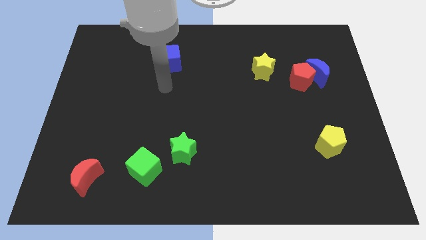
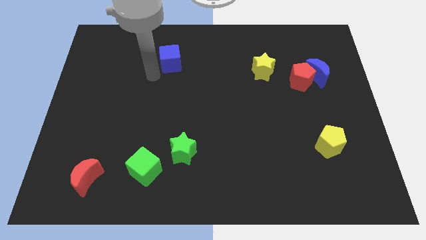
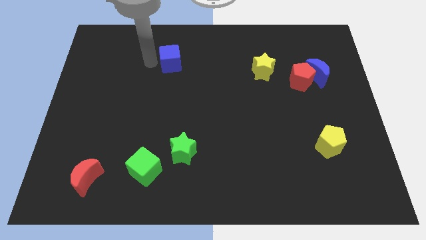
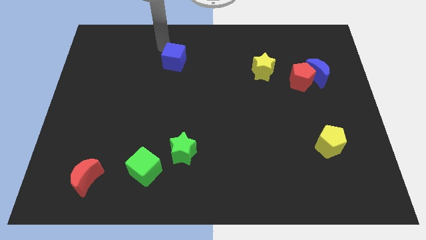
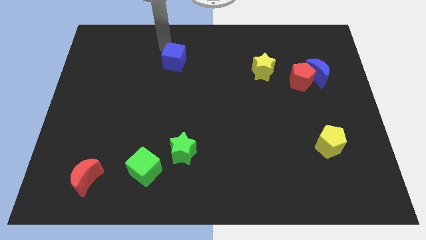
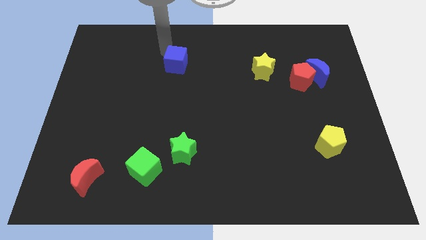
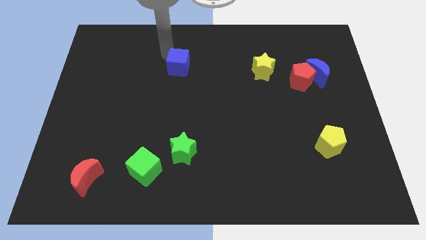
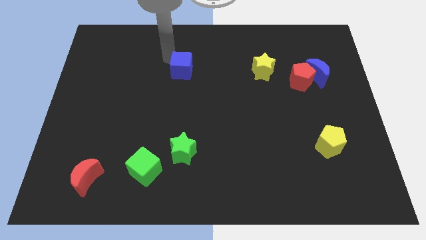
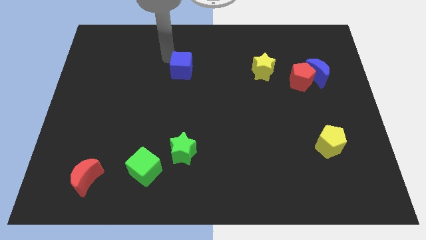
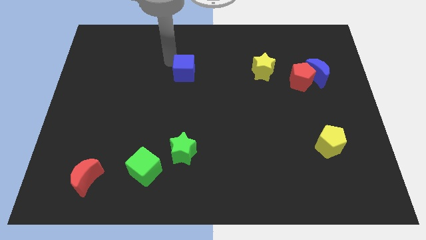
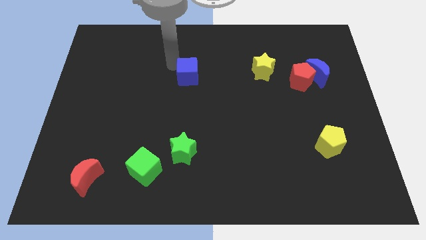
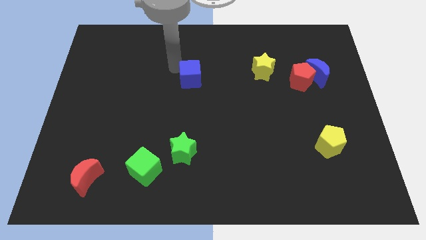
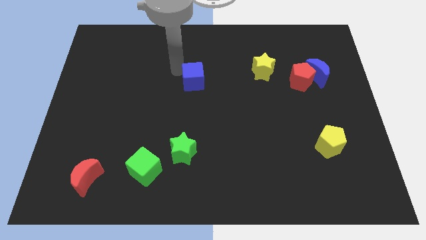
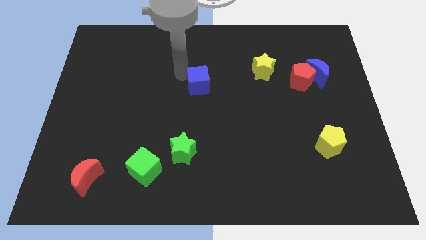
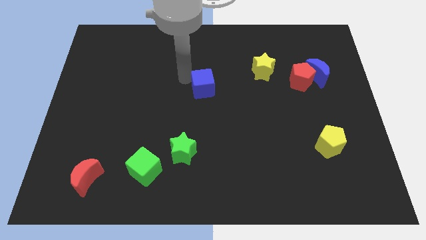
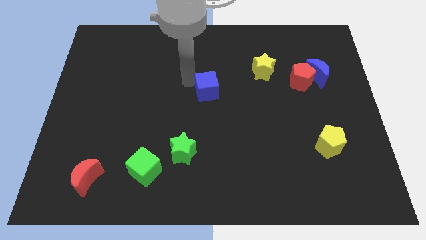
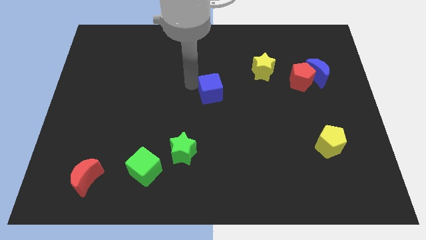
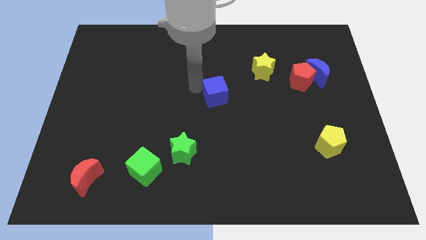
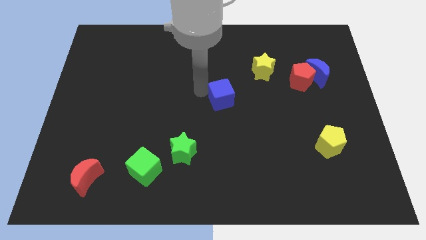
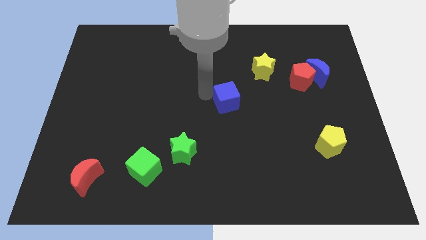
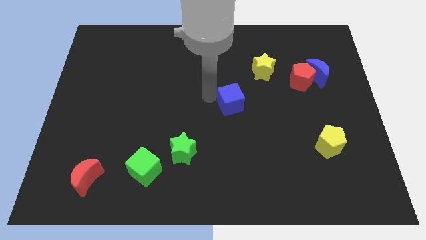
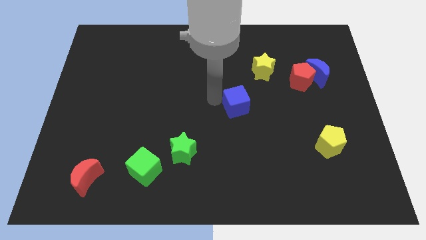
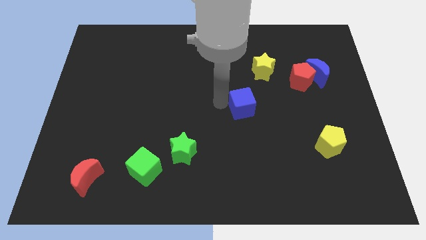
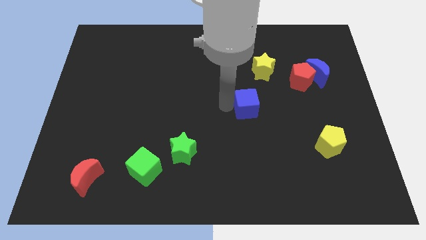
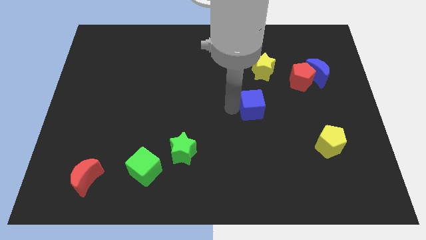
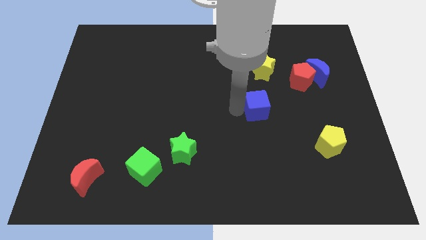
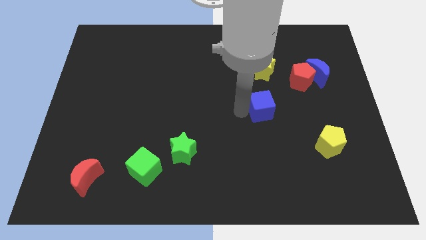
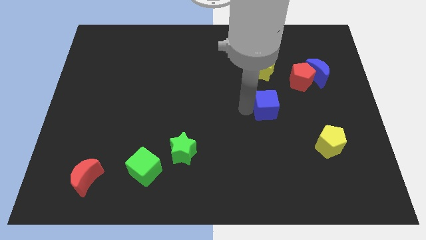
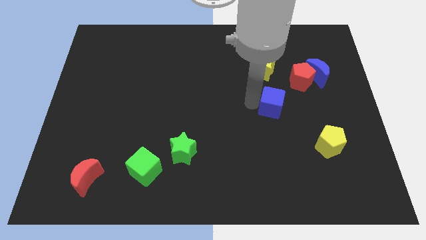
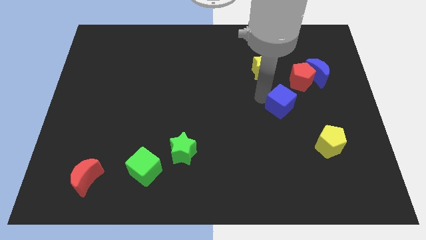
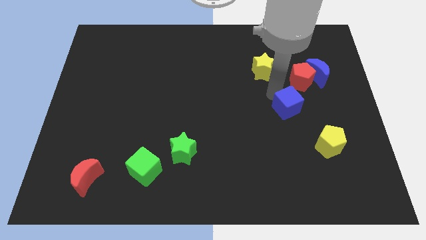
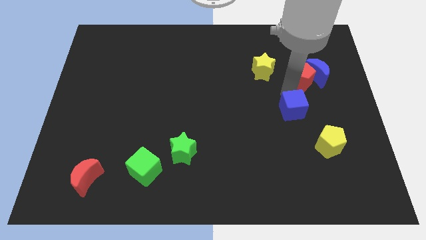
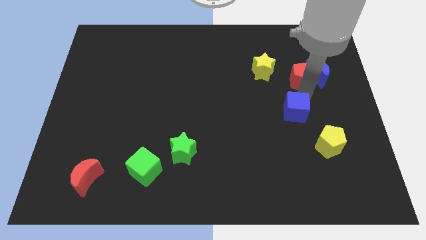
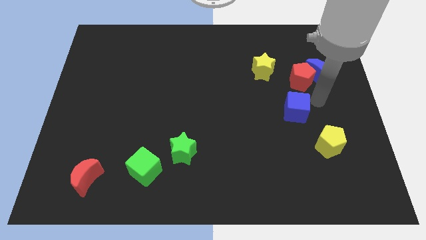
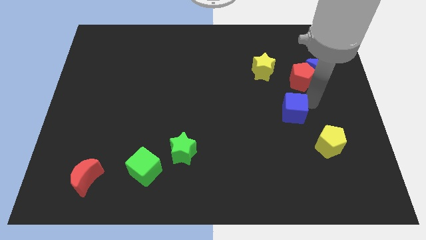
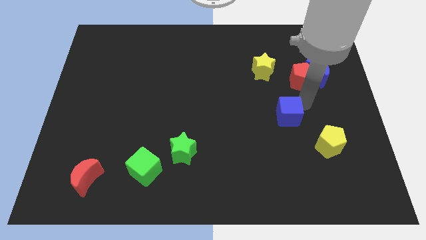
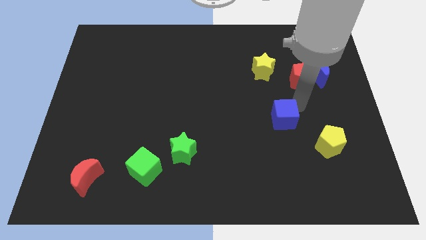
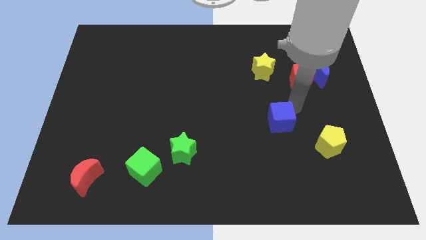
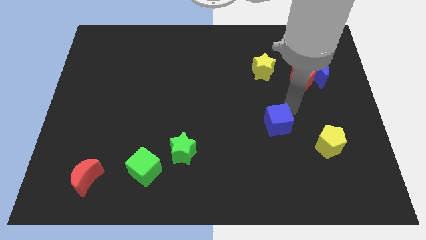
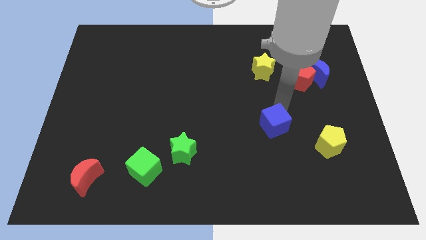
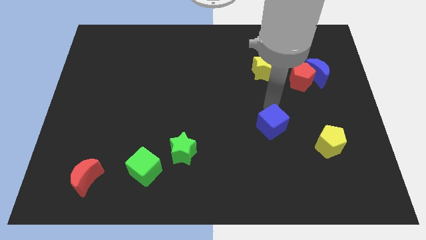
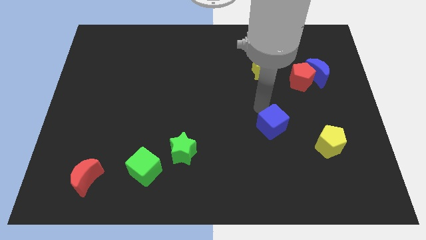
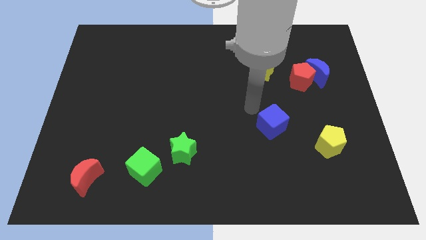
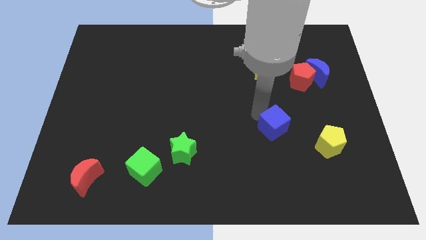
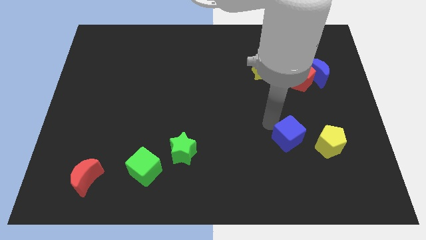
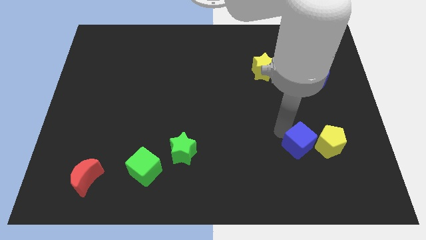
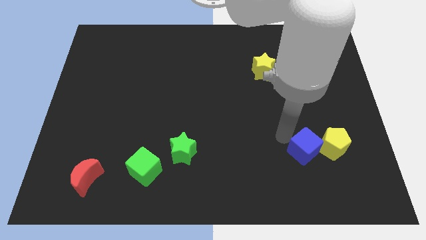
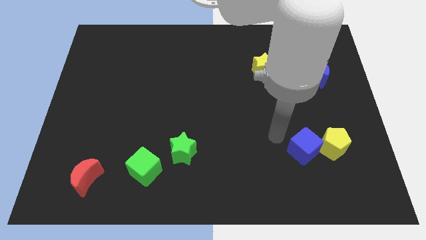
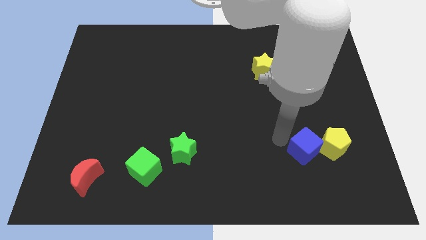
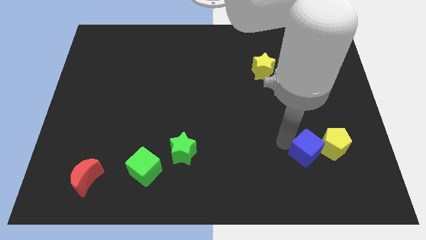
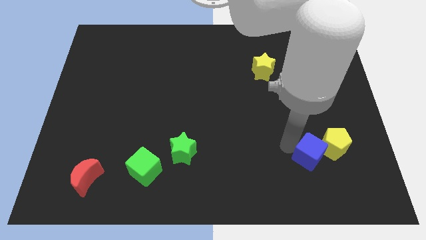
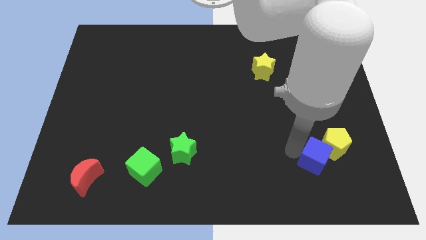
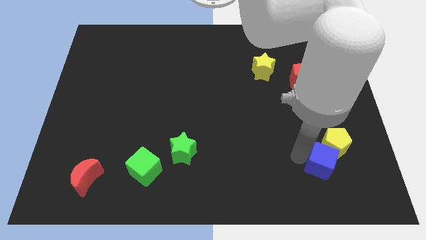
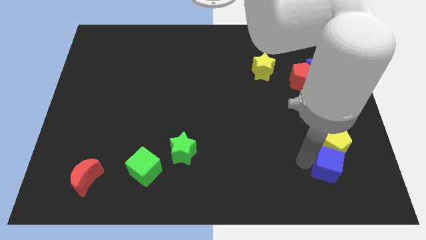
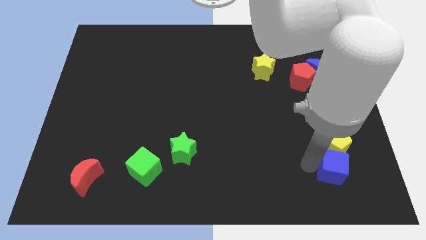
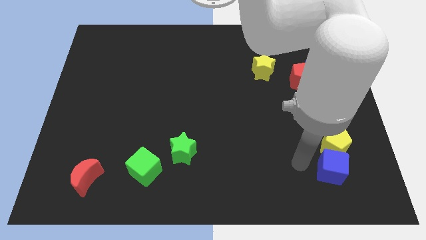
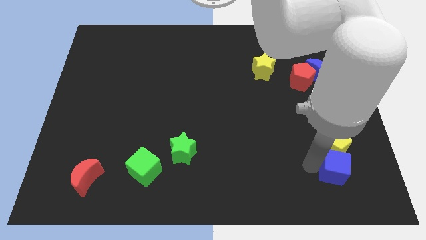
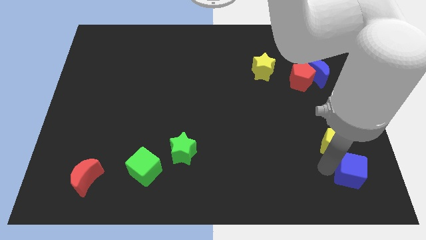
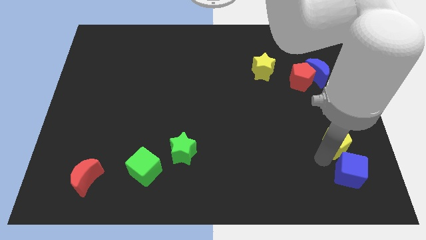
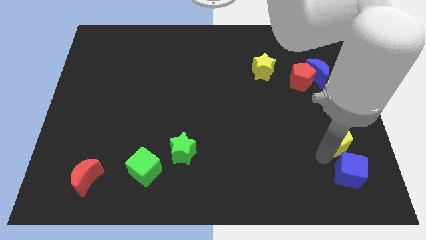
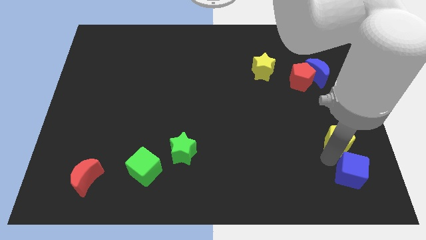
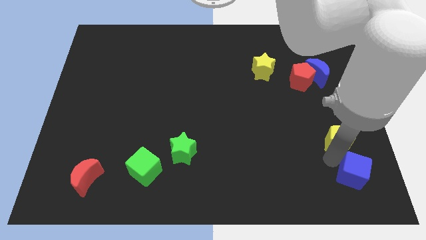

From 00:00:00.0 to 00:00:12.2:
slide the blue cube to the bottom right

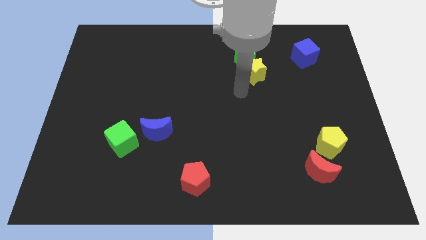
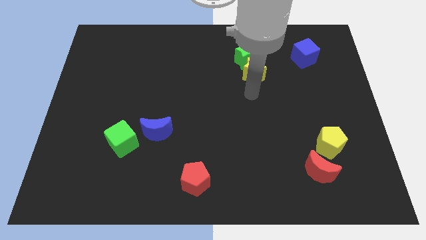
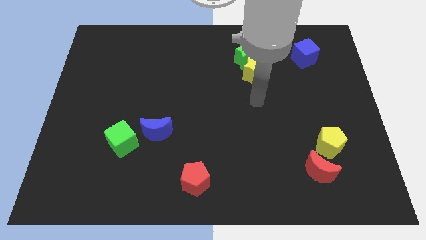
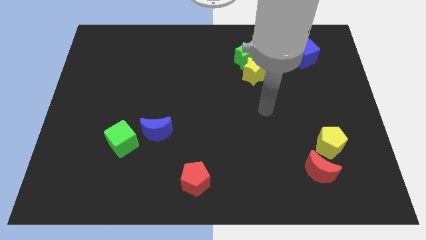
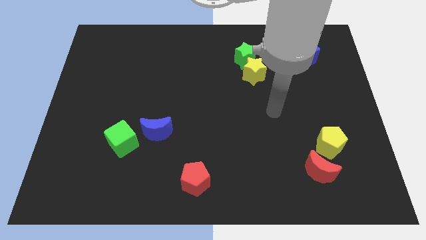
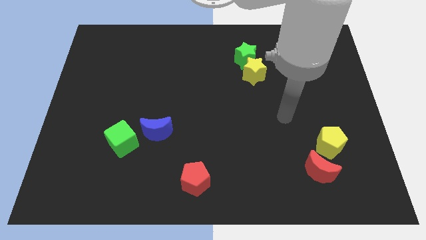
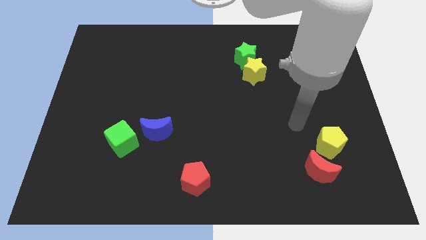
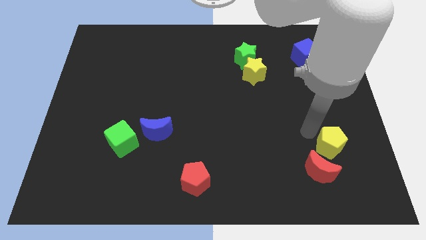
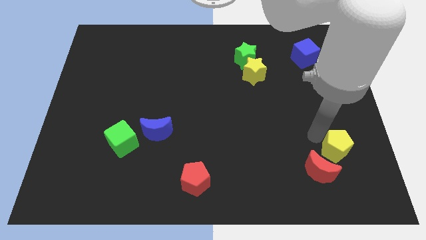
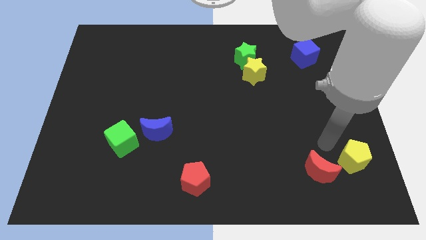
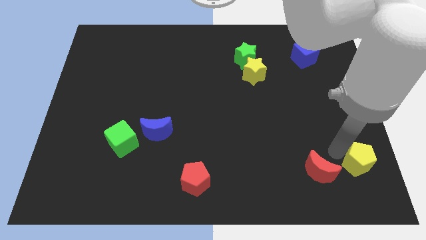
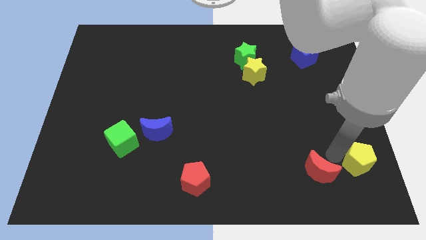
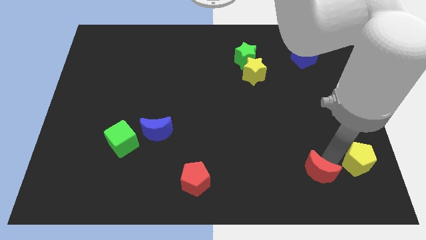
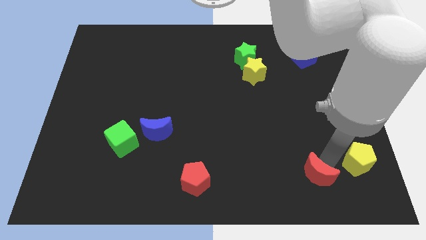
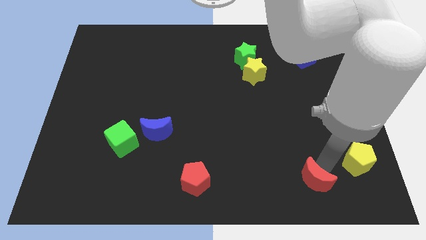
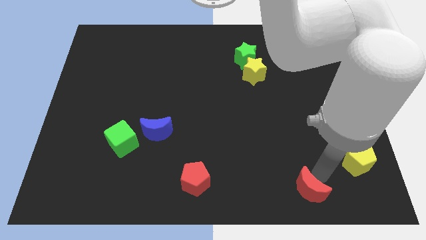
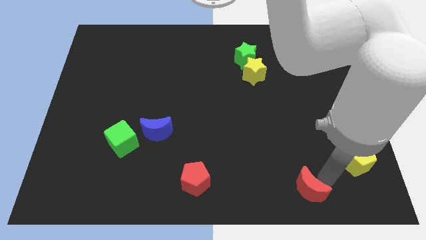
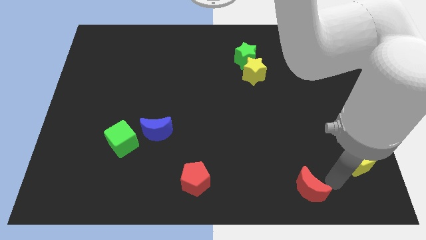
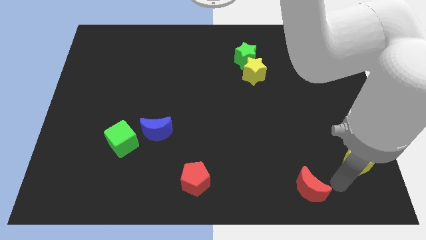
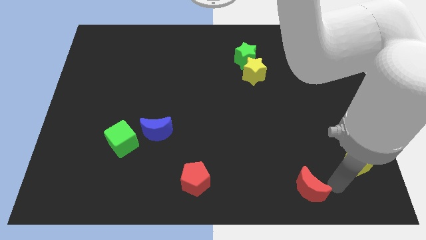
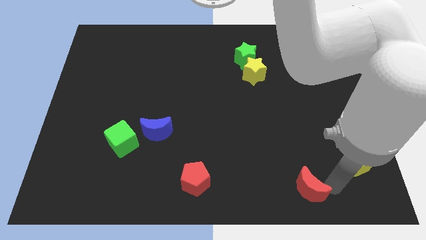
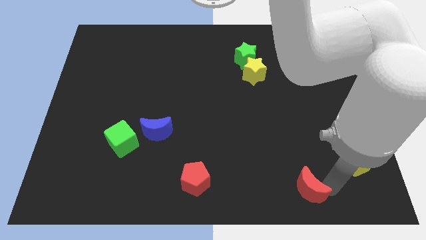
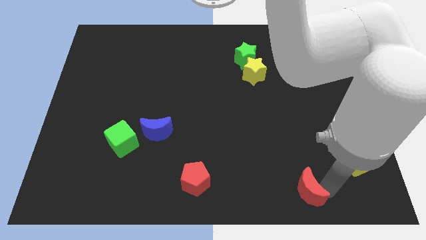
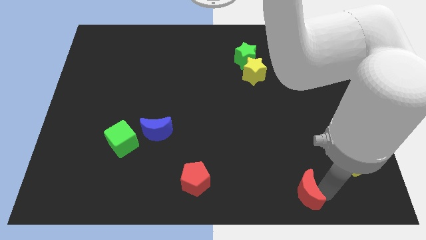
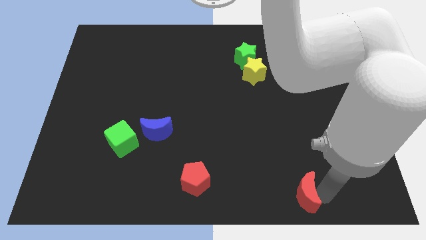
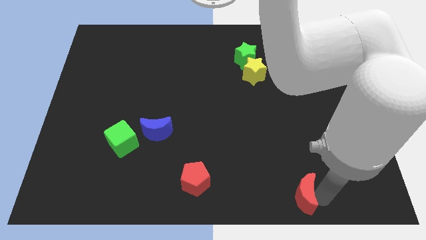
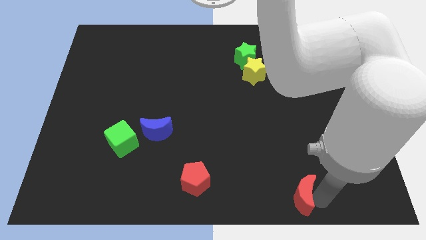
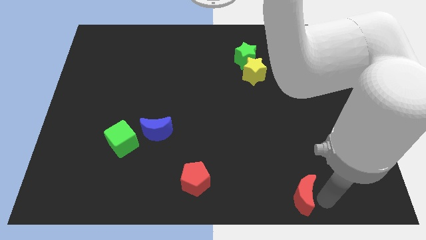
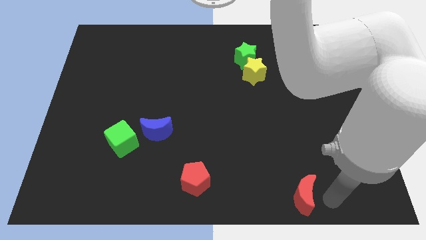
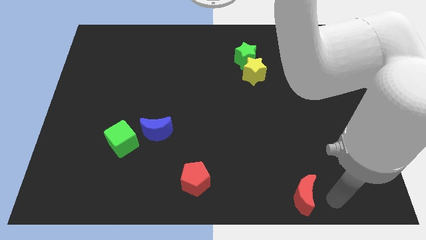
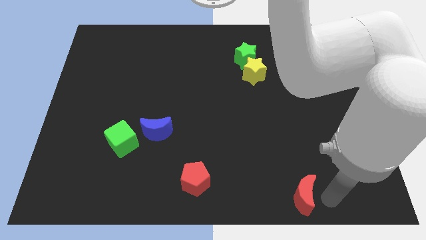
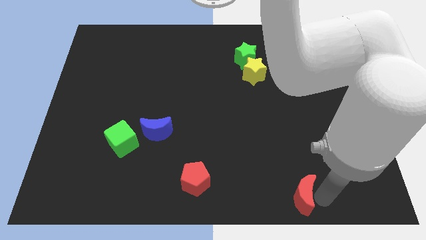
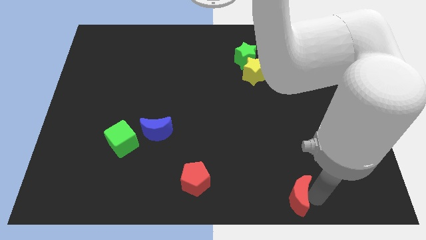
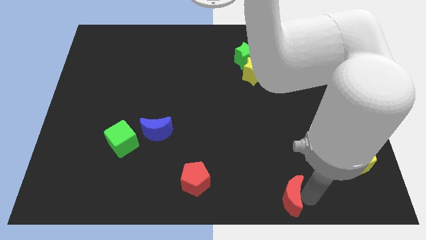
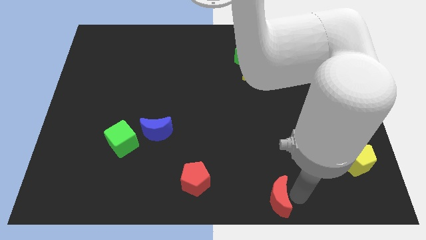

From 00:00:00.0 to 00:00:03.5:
move the red moon to the bottom
